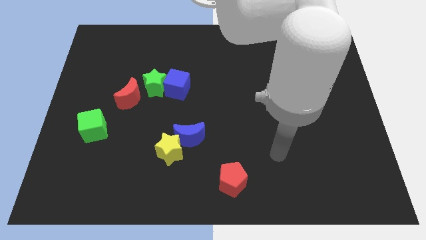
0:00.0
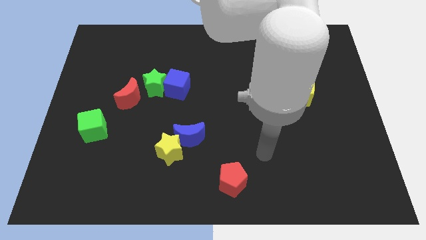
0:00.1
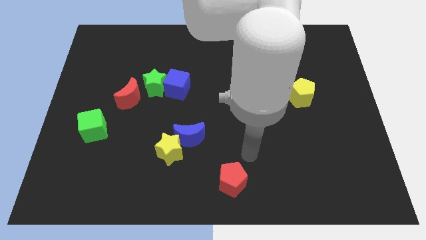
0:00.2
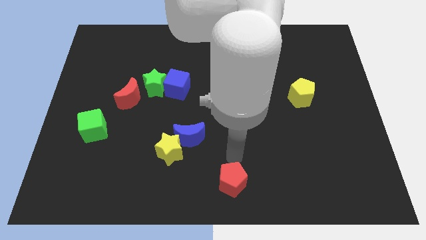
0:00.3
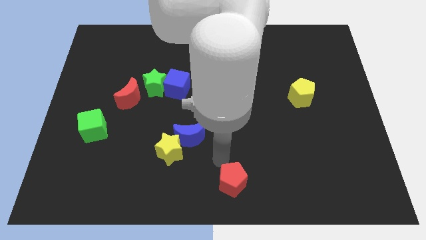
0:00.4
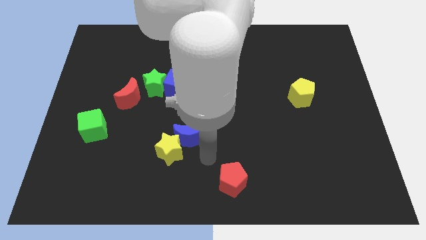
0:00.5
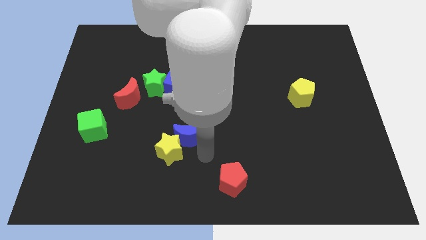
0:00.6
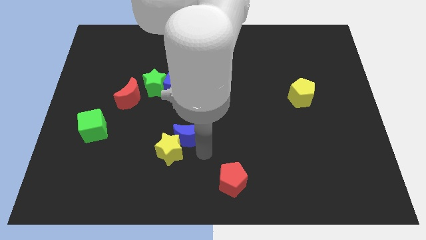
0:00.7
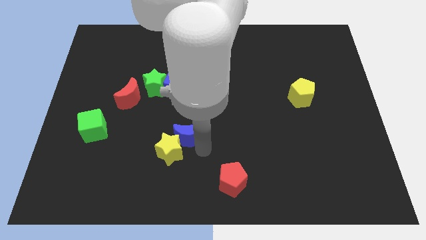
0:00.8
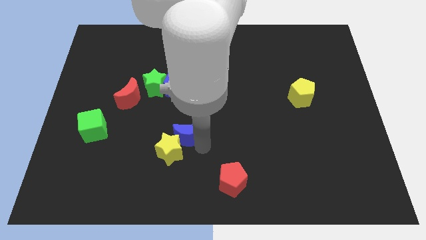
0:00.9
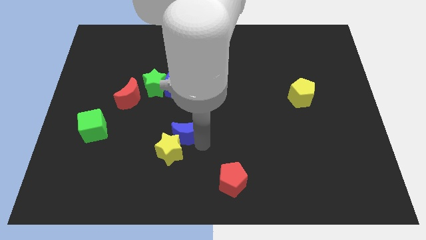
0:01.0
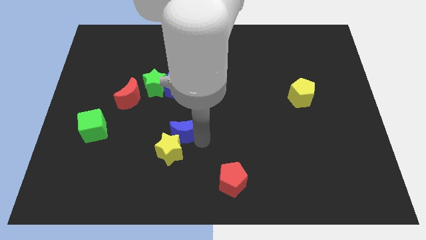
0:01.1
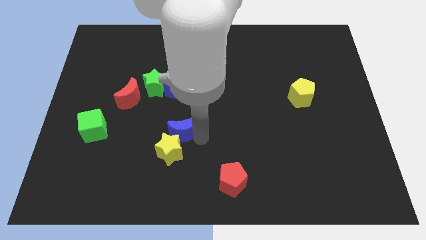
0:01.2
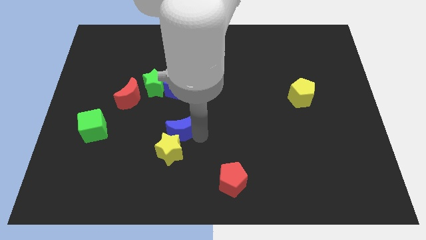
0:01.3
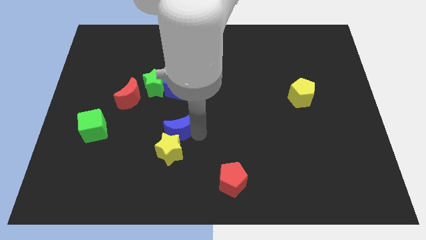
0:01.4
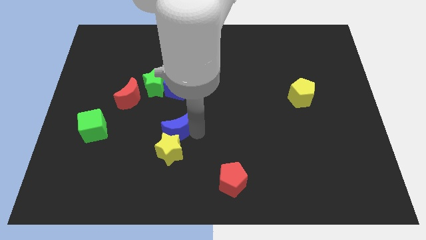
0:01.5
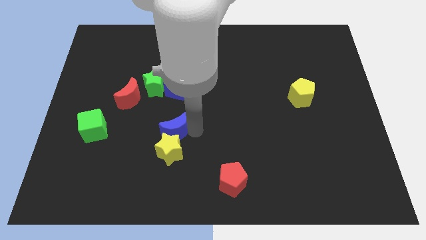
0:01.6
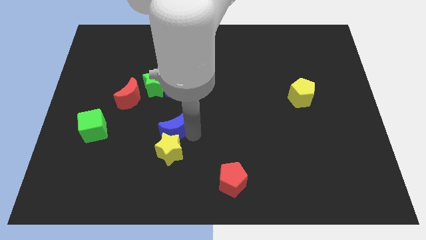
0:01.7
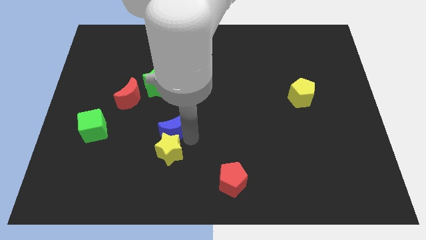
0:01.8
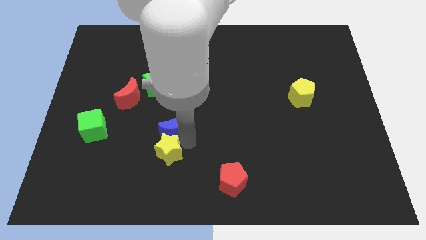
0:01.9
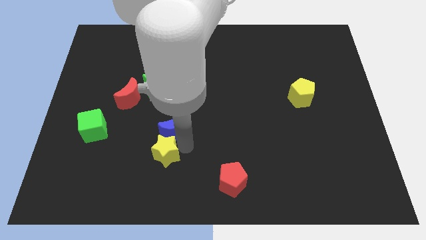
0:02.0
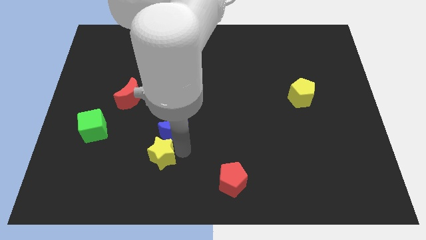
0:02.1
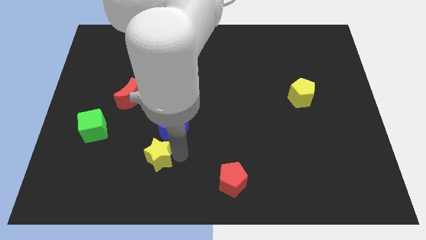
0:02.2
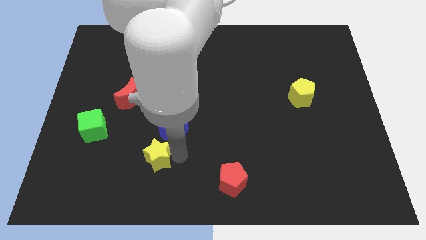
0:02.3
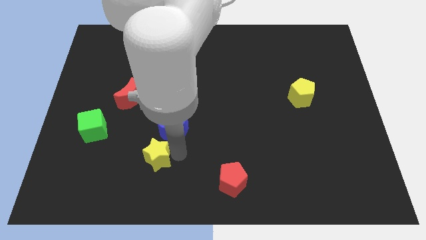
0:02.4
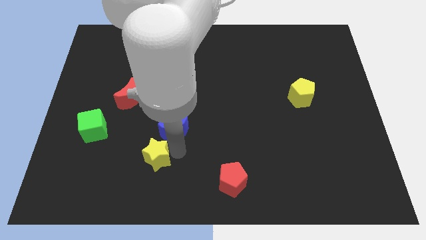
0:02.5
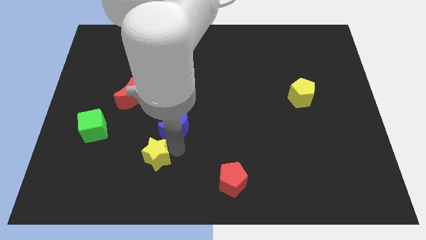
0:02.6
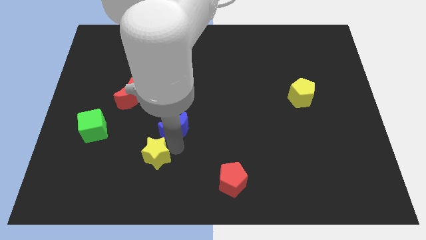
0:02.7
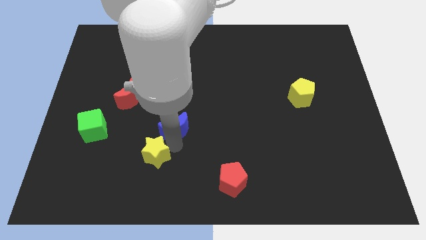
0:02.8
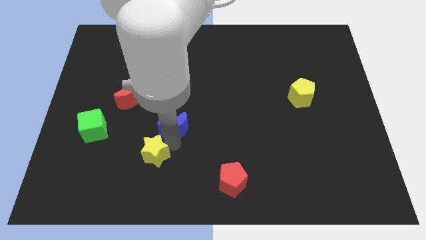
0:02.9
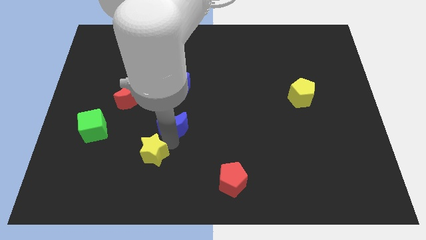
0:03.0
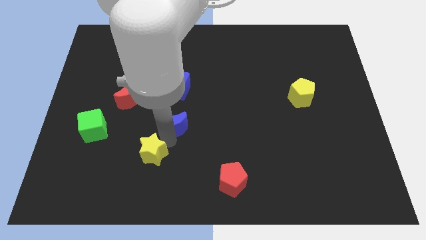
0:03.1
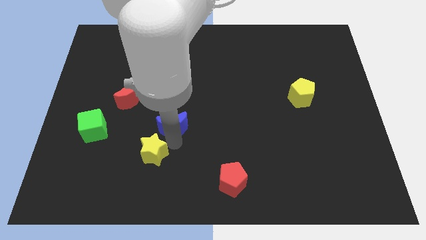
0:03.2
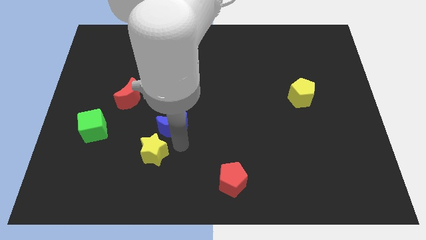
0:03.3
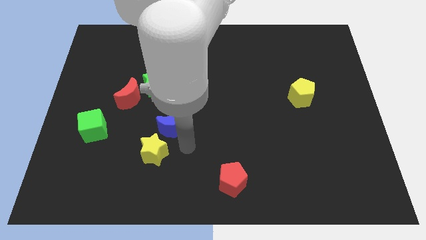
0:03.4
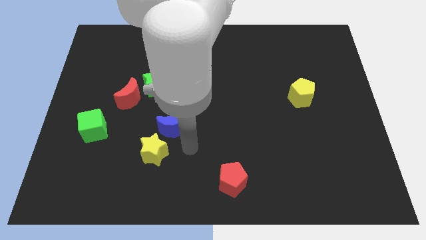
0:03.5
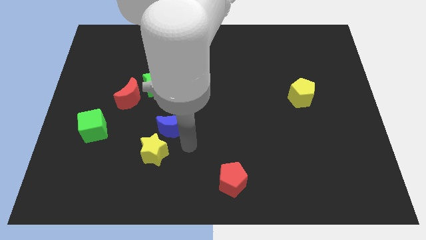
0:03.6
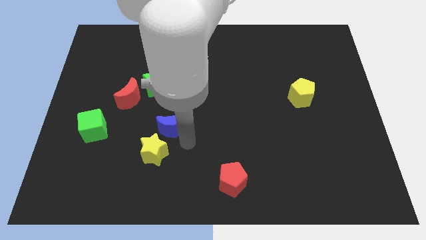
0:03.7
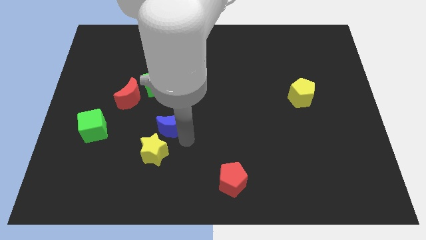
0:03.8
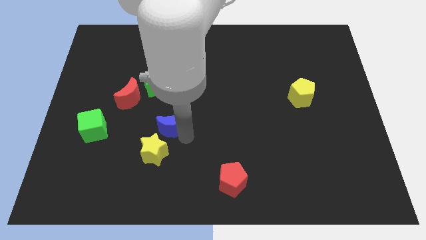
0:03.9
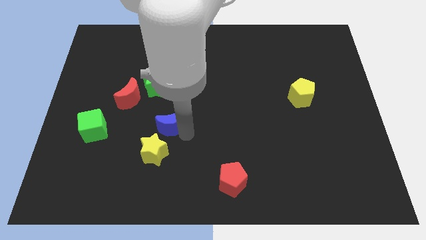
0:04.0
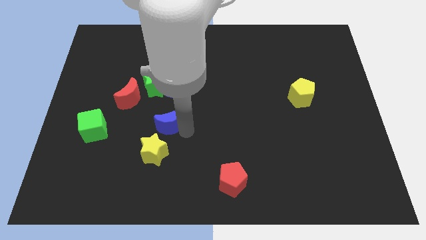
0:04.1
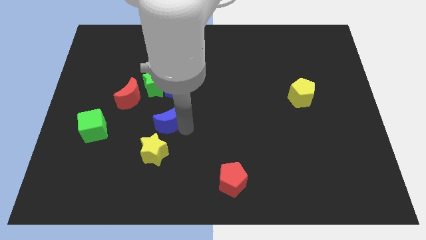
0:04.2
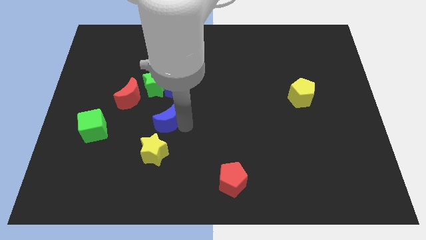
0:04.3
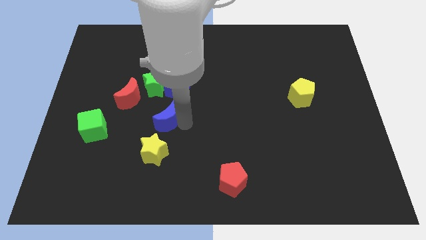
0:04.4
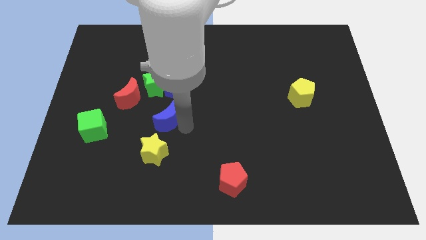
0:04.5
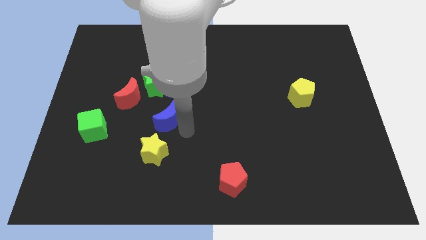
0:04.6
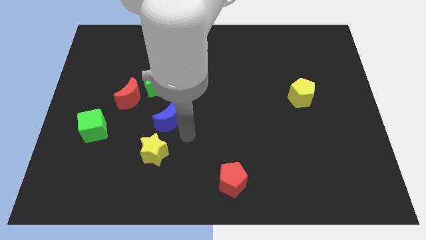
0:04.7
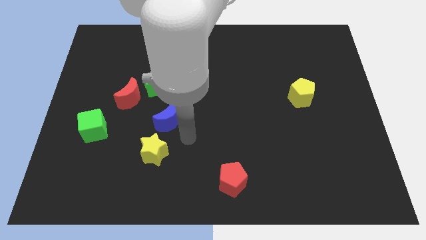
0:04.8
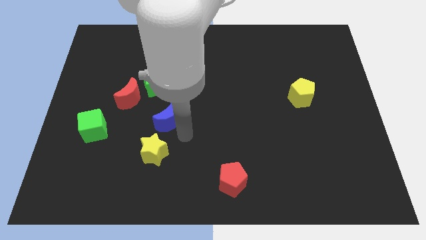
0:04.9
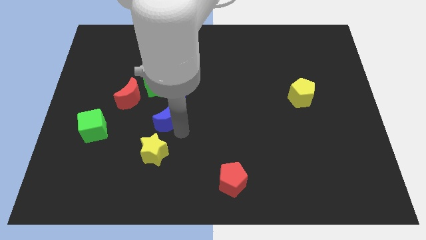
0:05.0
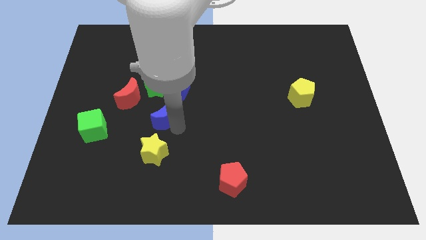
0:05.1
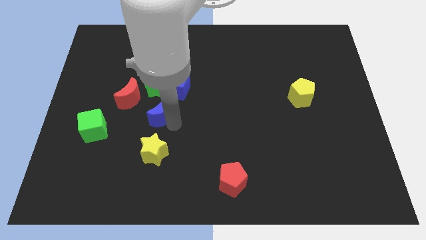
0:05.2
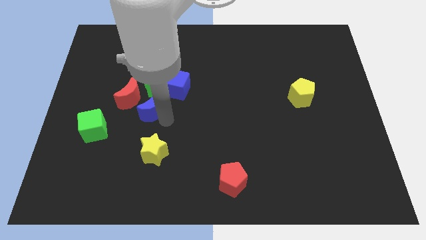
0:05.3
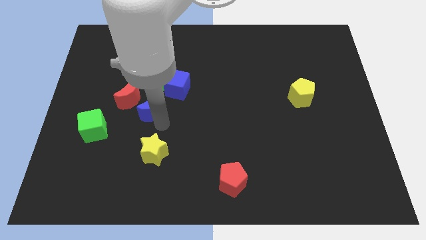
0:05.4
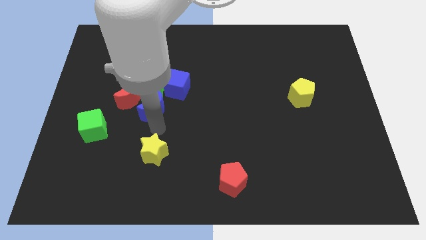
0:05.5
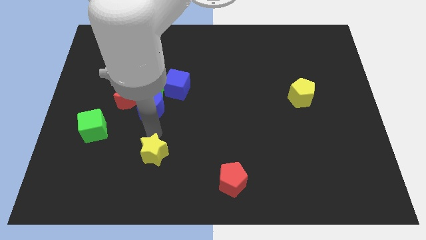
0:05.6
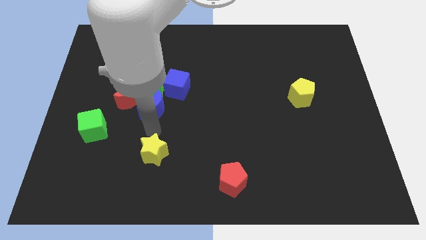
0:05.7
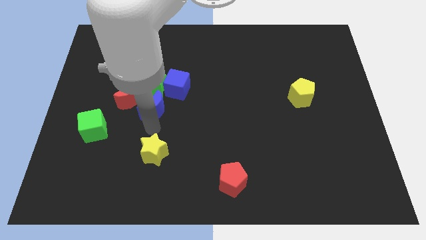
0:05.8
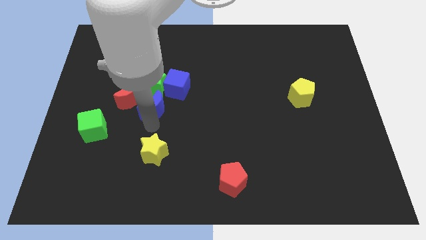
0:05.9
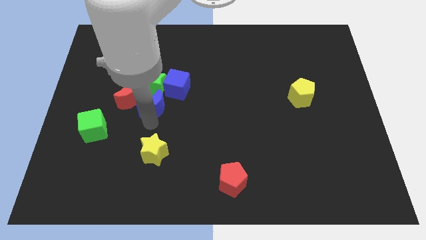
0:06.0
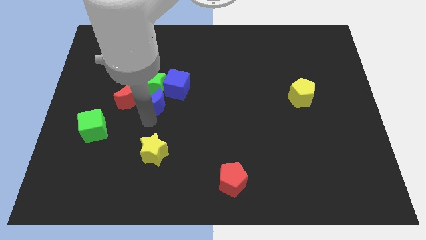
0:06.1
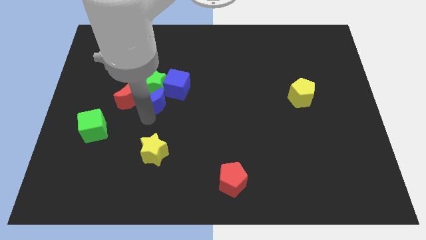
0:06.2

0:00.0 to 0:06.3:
move the blue moon to the green star

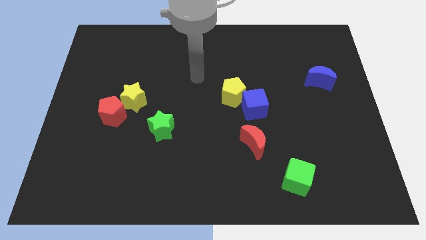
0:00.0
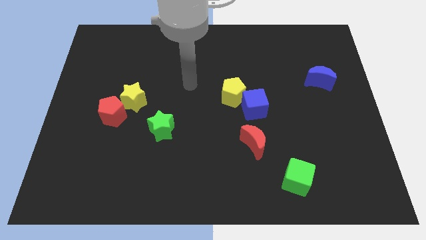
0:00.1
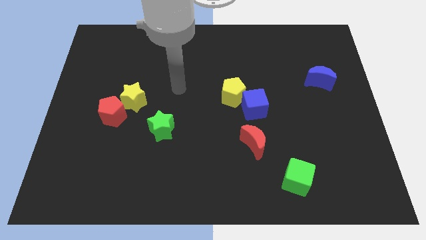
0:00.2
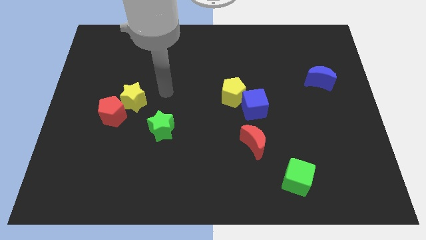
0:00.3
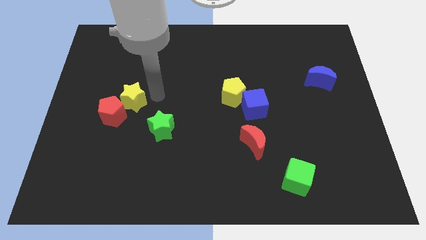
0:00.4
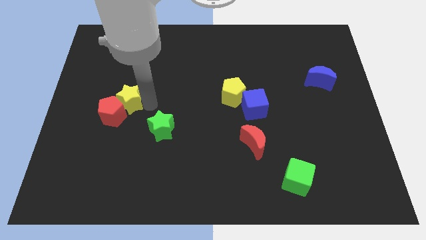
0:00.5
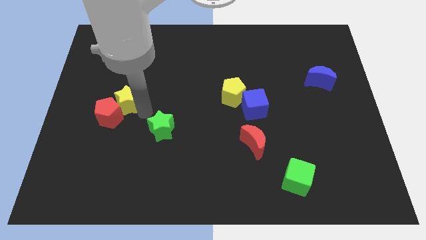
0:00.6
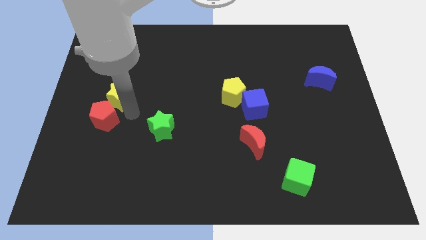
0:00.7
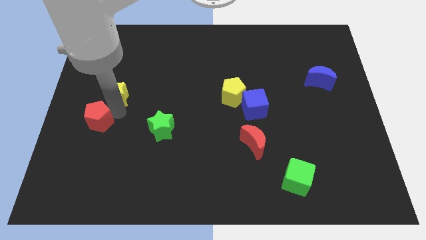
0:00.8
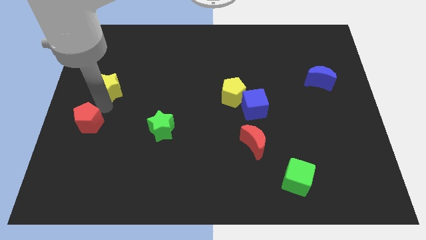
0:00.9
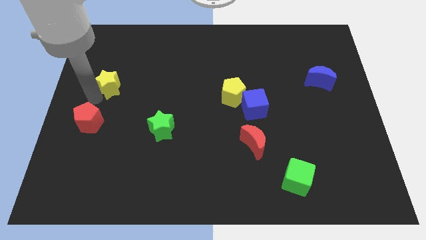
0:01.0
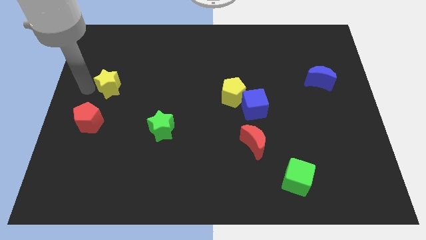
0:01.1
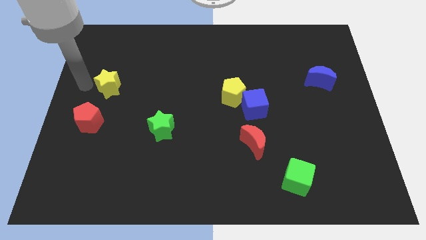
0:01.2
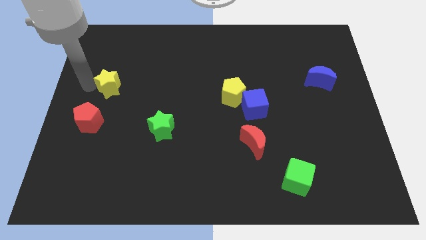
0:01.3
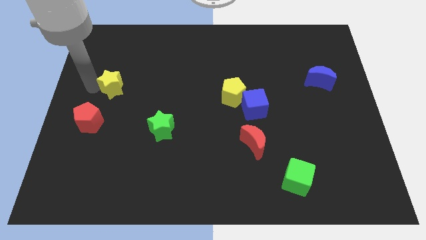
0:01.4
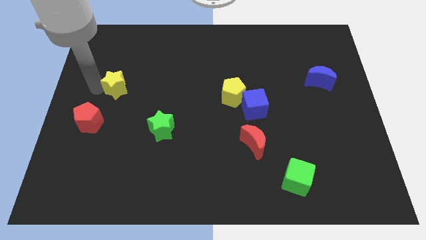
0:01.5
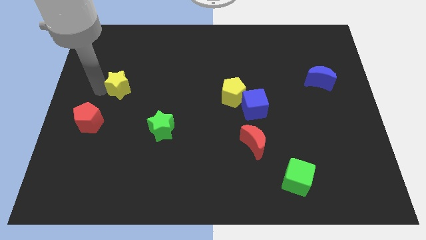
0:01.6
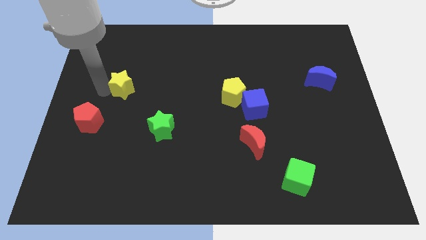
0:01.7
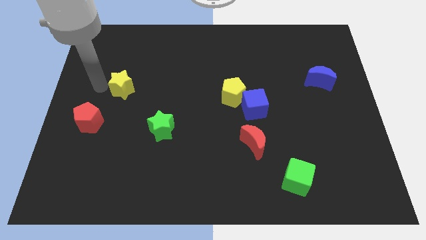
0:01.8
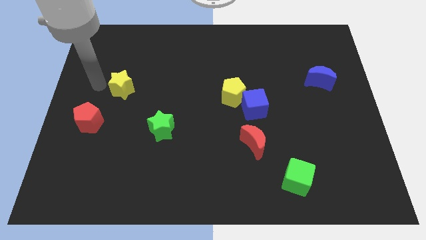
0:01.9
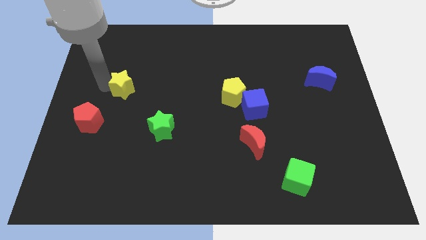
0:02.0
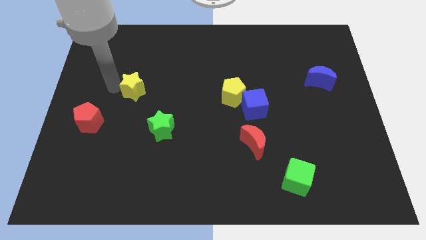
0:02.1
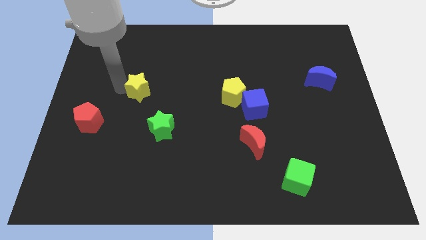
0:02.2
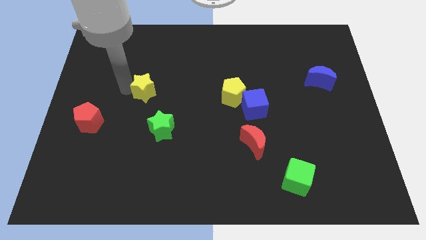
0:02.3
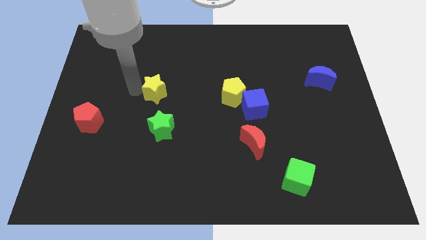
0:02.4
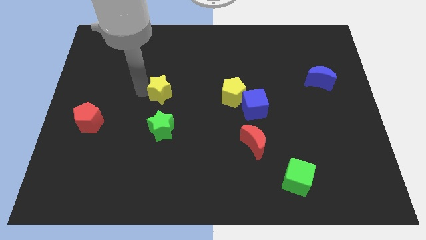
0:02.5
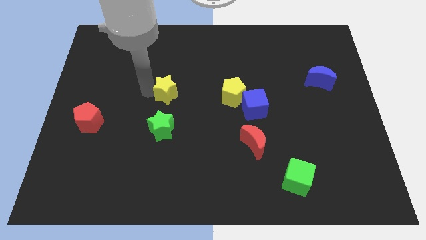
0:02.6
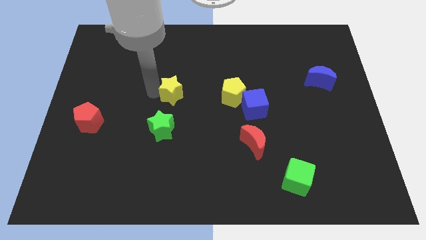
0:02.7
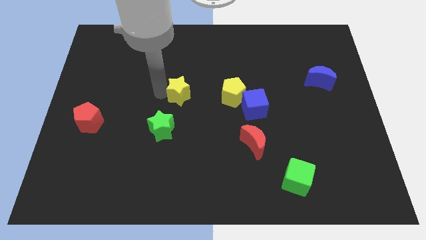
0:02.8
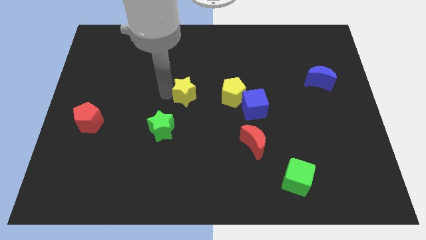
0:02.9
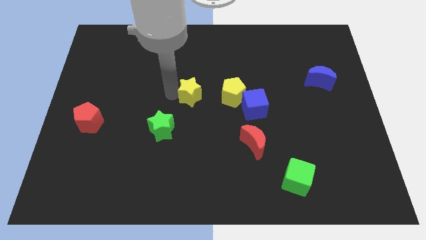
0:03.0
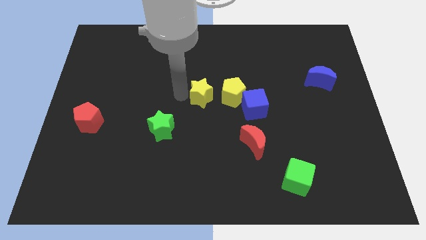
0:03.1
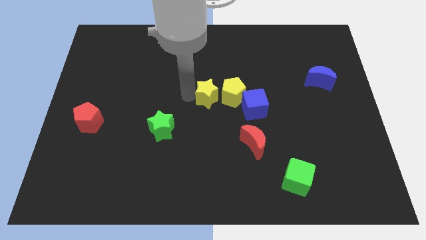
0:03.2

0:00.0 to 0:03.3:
push the yellow star close to the yellow pentagon
